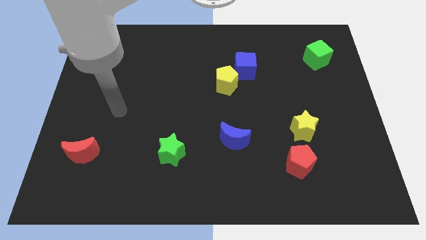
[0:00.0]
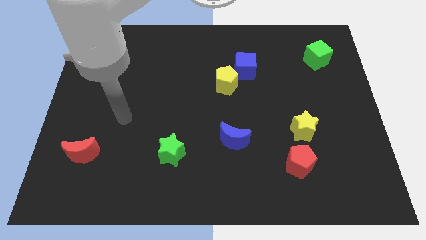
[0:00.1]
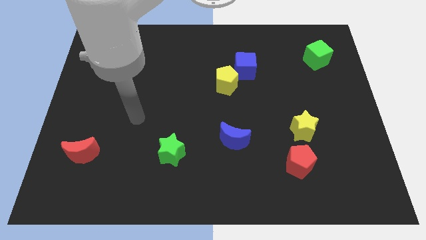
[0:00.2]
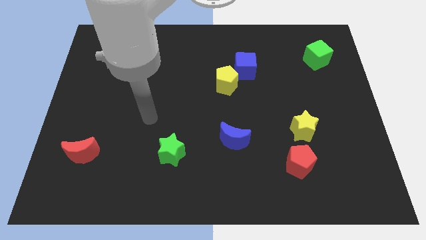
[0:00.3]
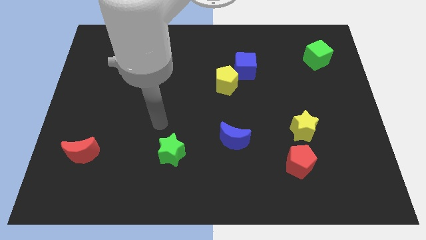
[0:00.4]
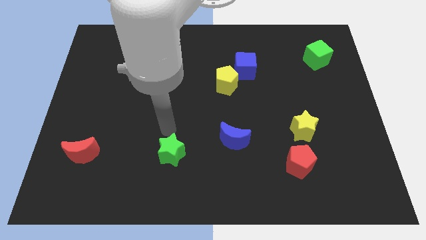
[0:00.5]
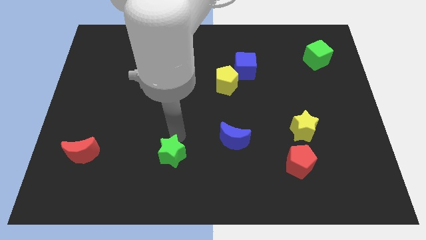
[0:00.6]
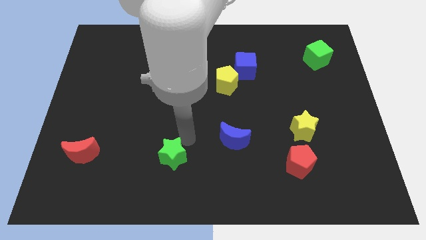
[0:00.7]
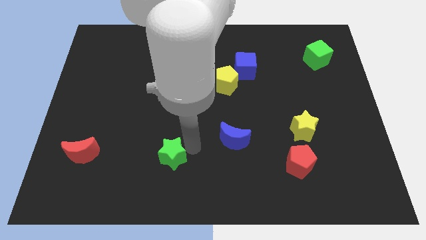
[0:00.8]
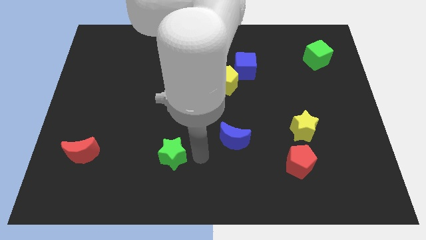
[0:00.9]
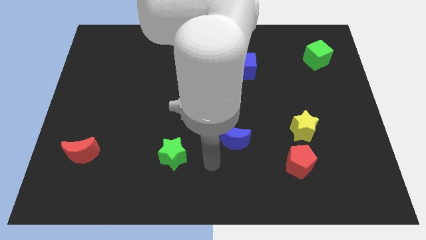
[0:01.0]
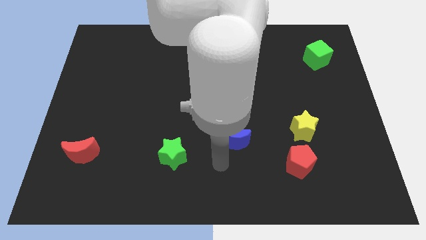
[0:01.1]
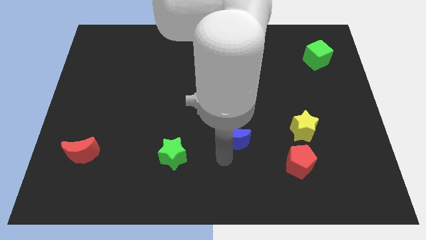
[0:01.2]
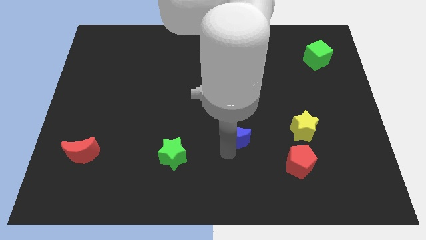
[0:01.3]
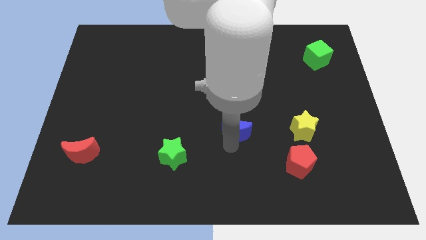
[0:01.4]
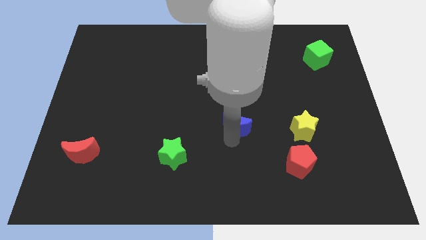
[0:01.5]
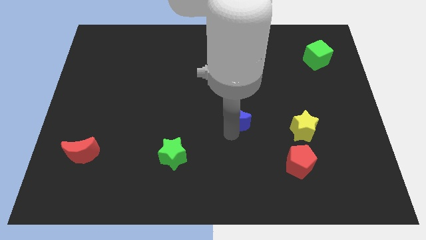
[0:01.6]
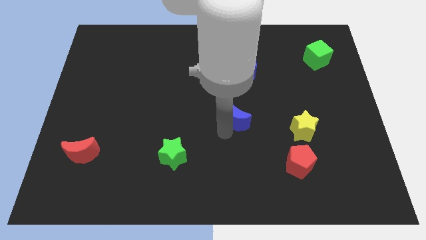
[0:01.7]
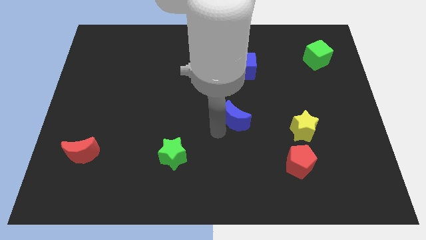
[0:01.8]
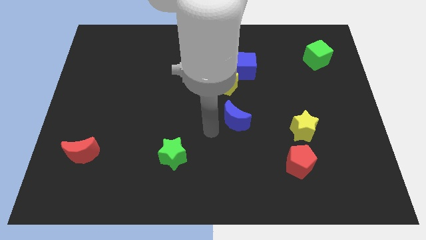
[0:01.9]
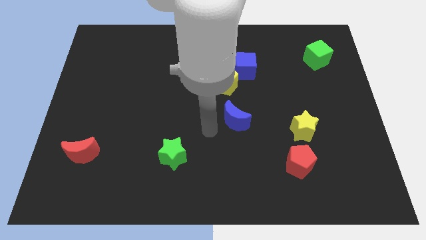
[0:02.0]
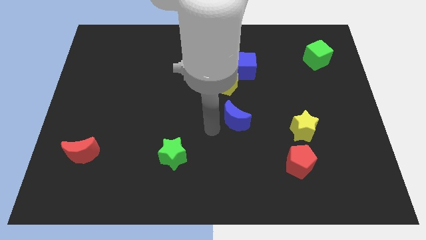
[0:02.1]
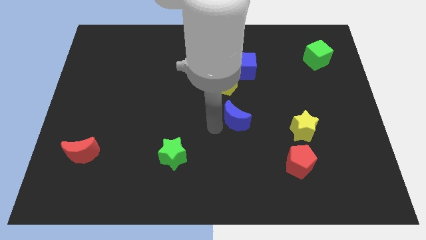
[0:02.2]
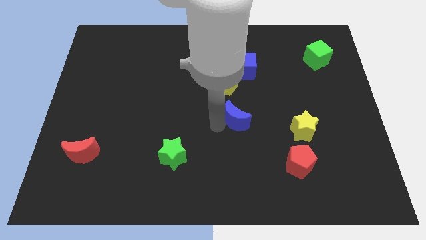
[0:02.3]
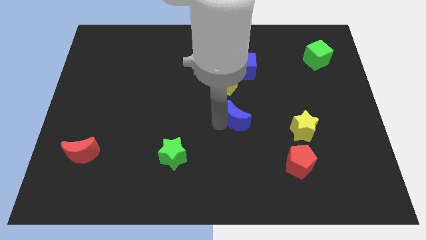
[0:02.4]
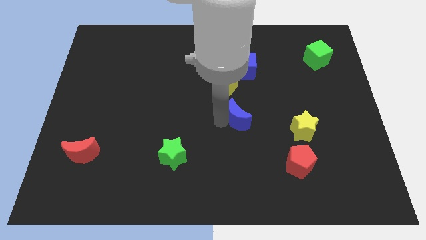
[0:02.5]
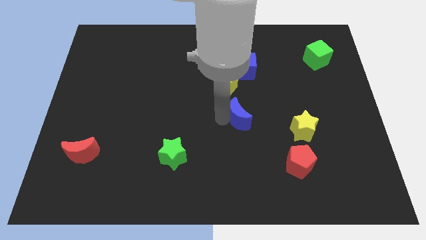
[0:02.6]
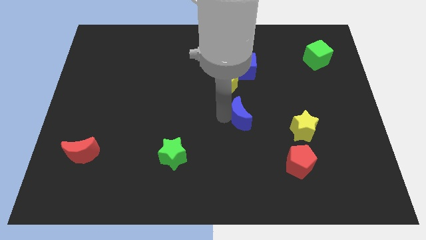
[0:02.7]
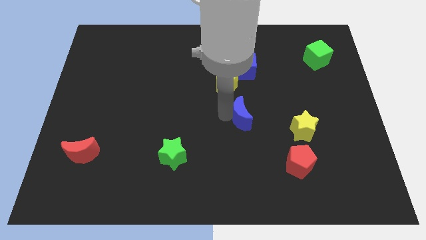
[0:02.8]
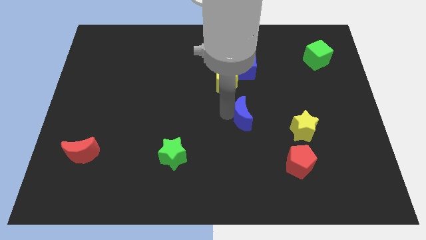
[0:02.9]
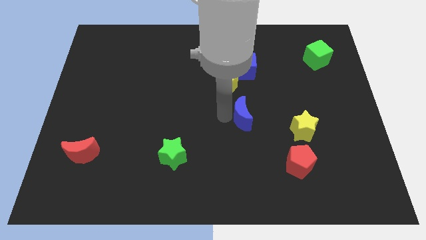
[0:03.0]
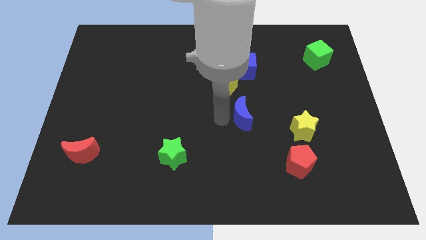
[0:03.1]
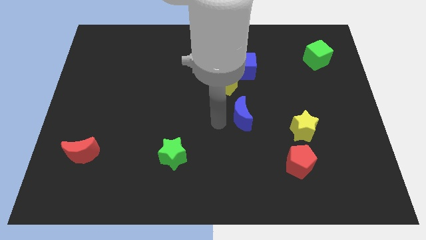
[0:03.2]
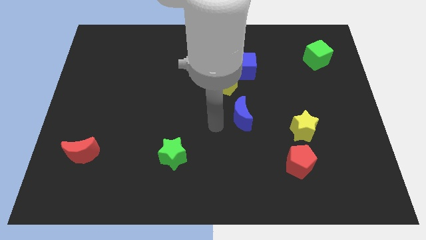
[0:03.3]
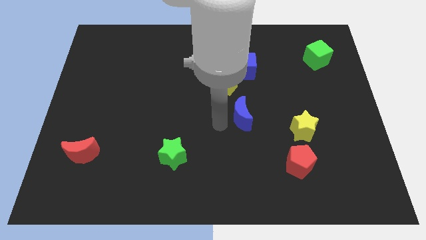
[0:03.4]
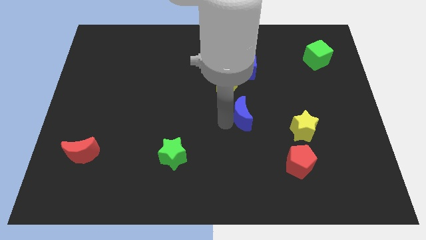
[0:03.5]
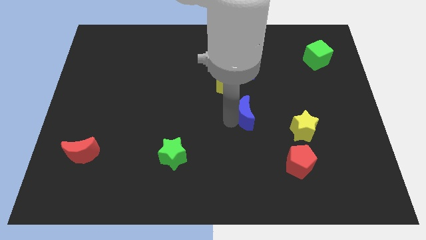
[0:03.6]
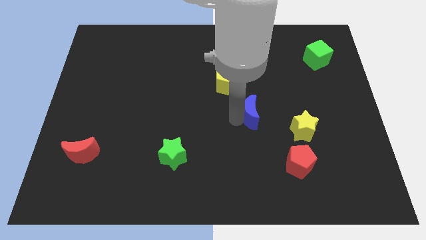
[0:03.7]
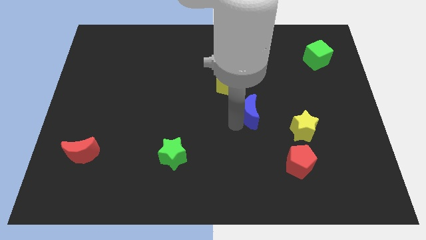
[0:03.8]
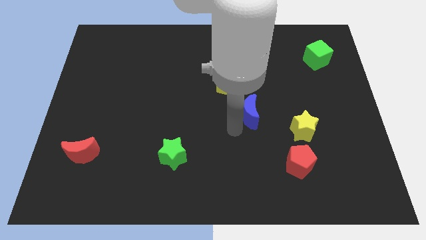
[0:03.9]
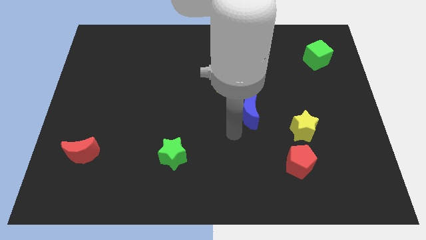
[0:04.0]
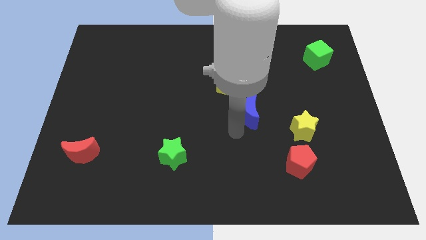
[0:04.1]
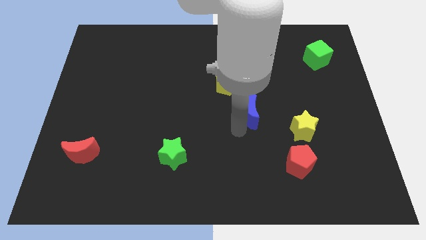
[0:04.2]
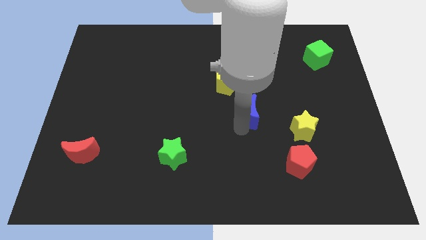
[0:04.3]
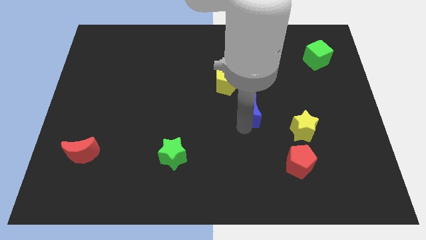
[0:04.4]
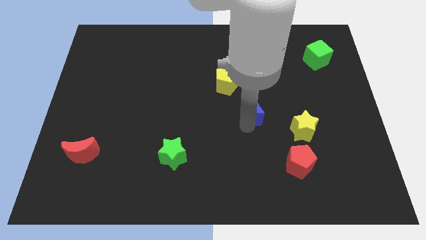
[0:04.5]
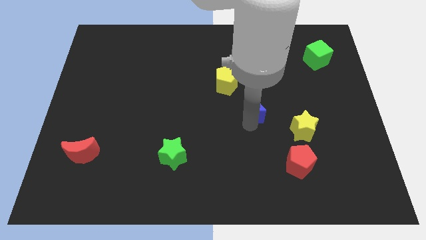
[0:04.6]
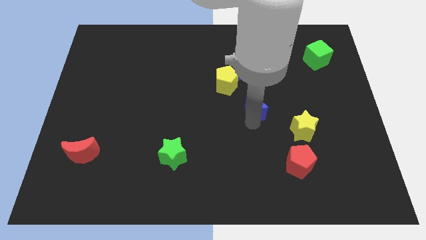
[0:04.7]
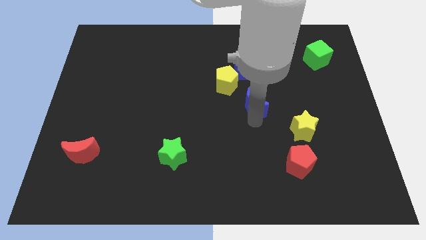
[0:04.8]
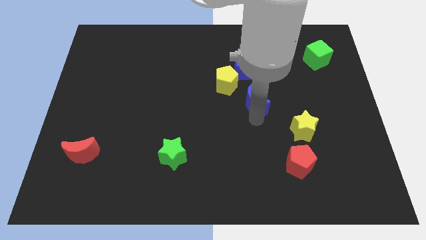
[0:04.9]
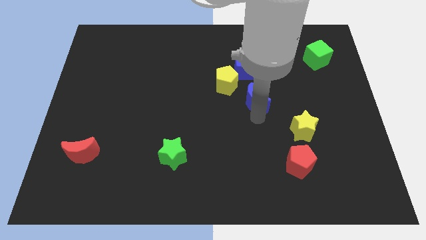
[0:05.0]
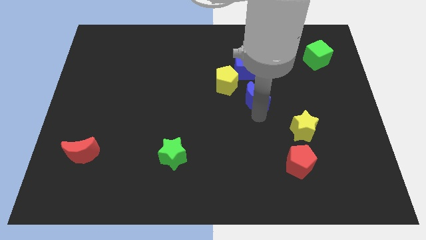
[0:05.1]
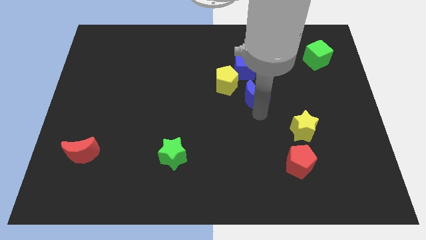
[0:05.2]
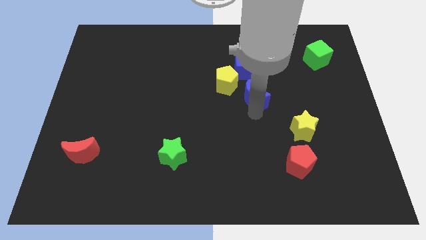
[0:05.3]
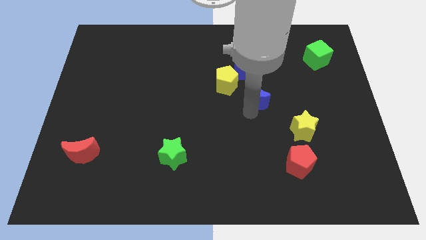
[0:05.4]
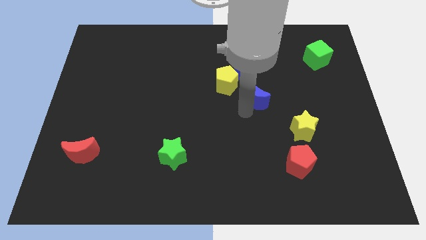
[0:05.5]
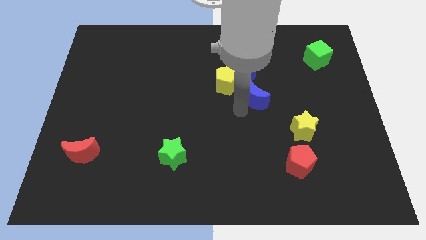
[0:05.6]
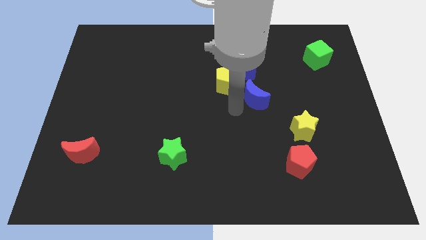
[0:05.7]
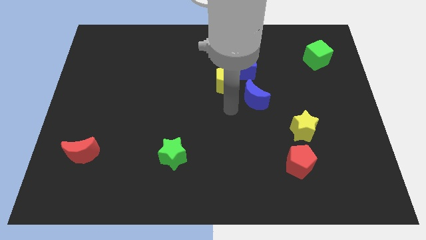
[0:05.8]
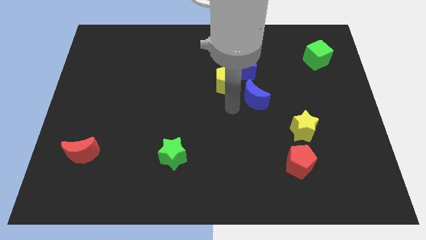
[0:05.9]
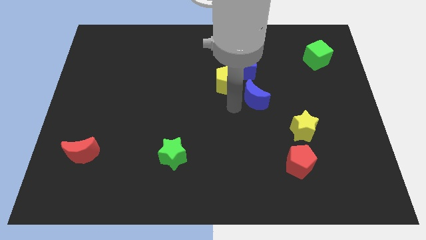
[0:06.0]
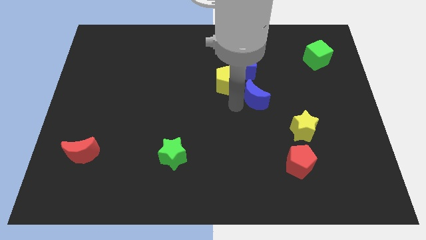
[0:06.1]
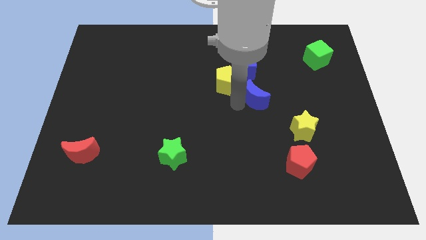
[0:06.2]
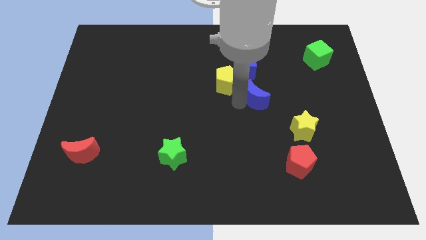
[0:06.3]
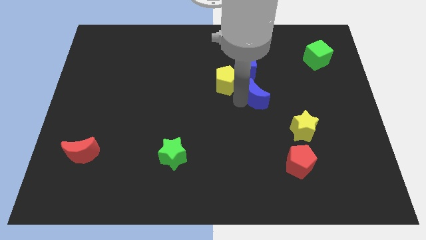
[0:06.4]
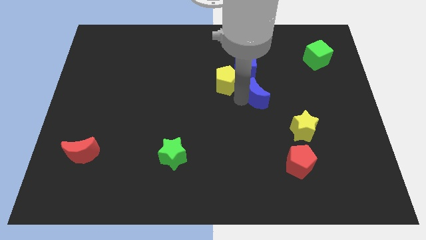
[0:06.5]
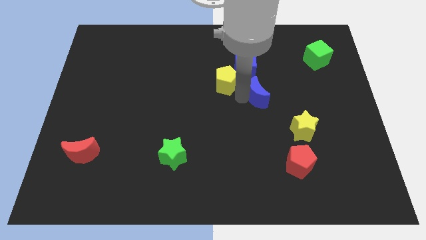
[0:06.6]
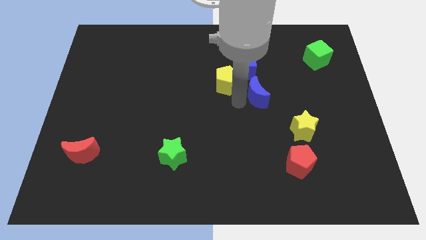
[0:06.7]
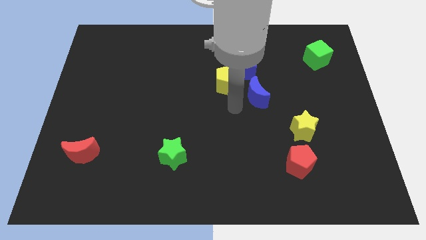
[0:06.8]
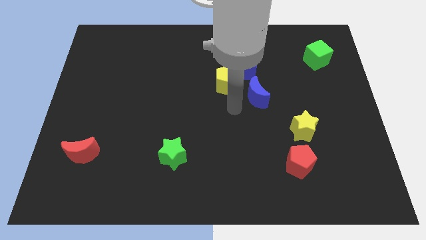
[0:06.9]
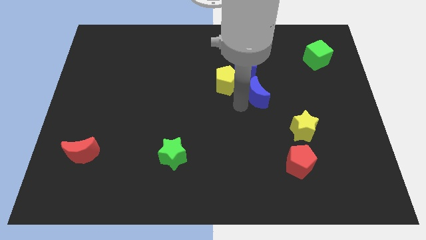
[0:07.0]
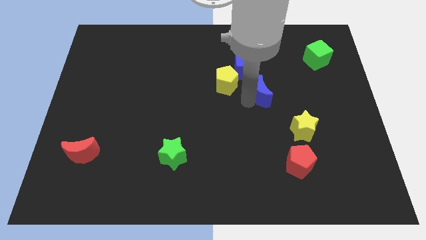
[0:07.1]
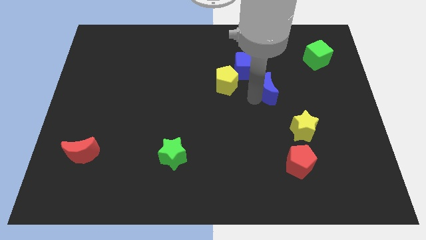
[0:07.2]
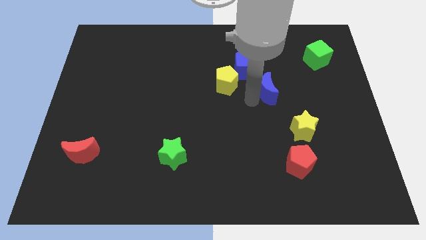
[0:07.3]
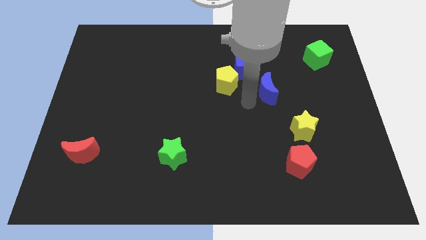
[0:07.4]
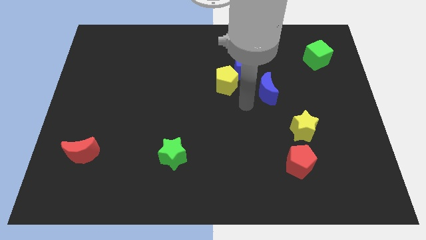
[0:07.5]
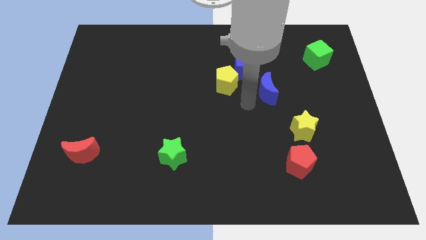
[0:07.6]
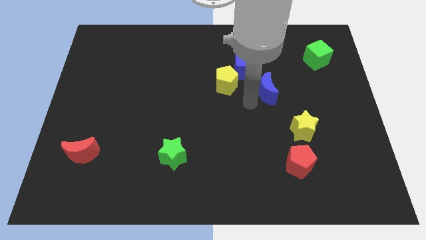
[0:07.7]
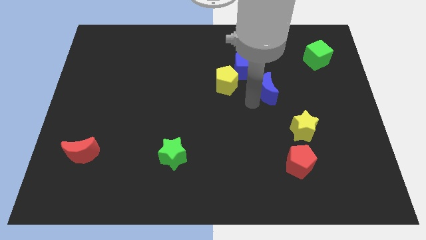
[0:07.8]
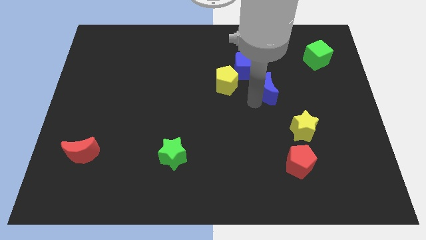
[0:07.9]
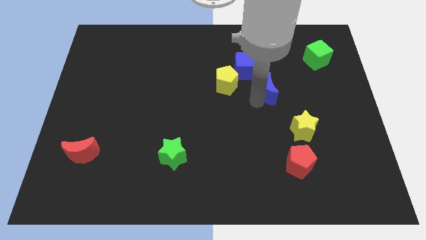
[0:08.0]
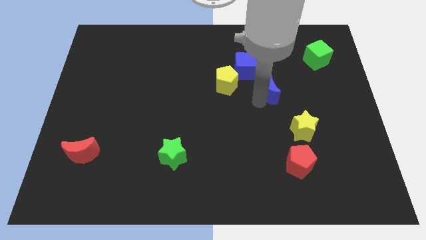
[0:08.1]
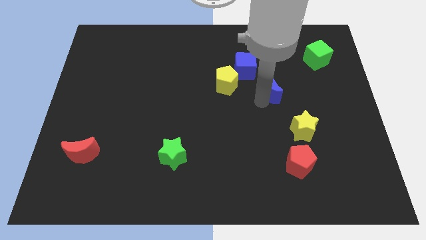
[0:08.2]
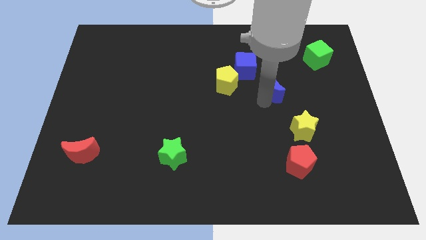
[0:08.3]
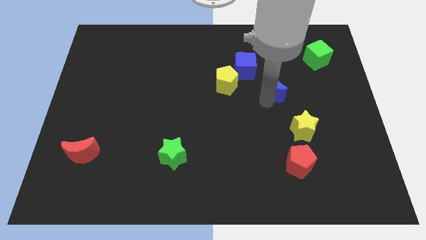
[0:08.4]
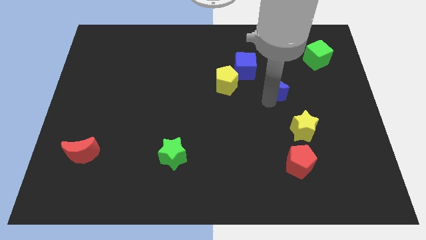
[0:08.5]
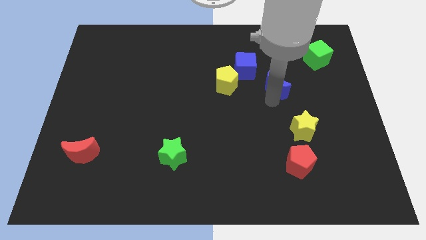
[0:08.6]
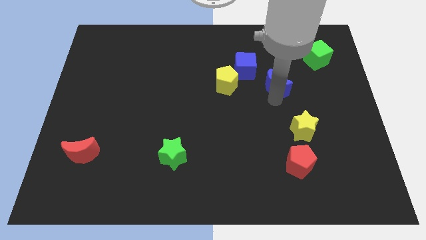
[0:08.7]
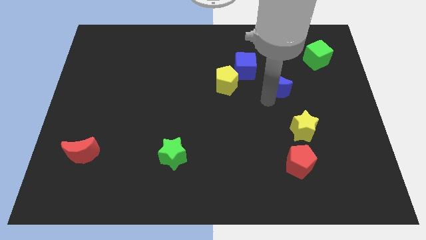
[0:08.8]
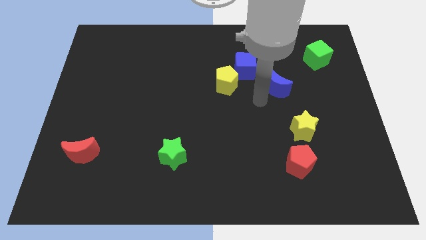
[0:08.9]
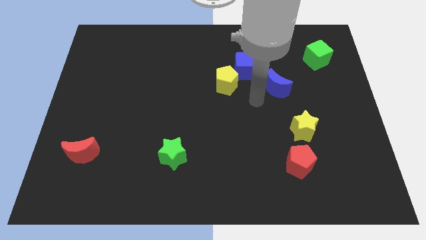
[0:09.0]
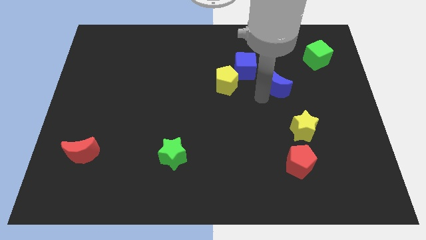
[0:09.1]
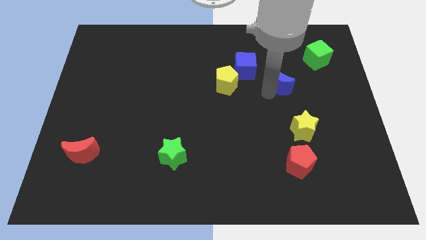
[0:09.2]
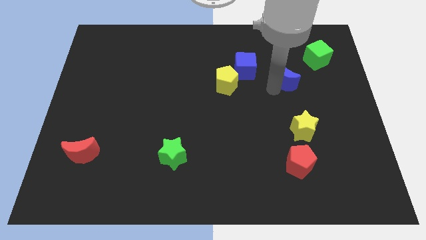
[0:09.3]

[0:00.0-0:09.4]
slide the blue moon to the bottom left of the green cube
